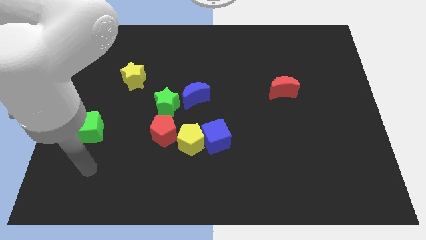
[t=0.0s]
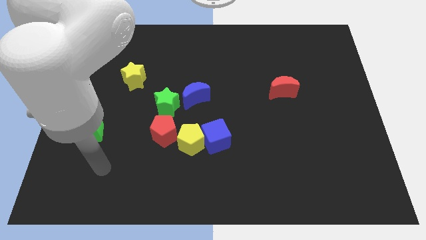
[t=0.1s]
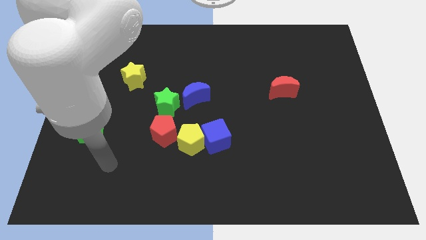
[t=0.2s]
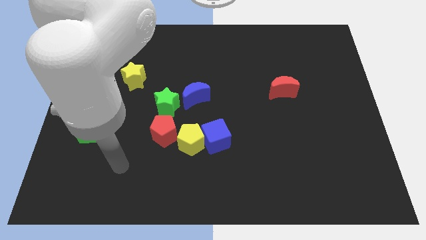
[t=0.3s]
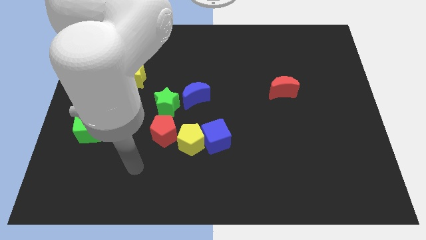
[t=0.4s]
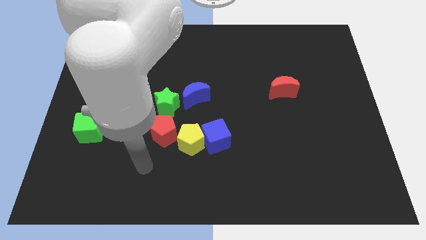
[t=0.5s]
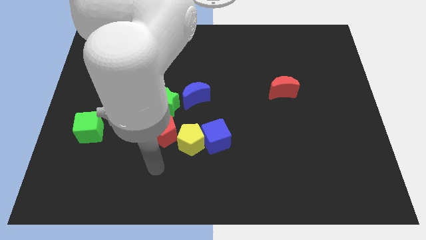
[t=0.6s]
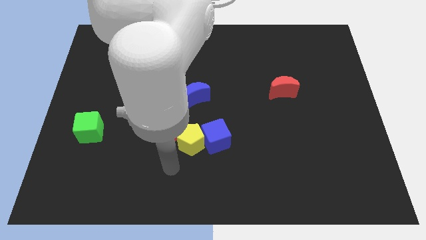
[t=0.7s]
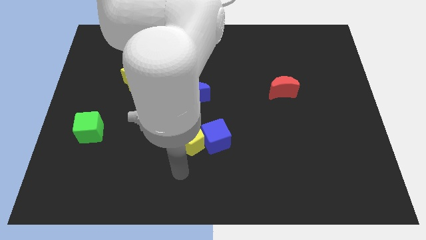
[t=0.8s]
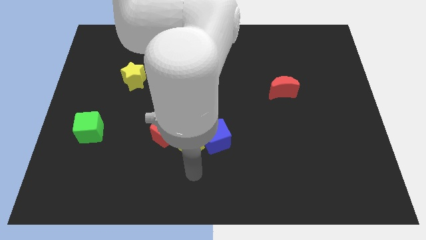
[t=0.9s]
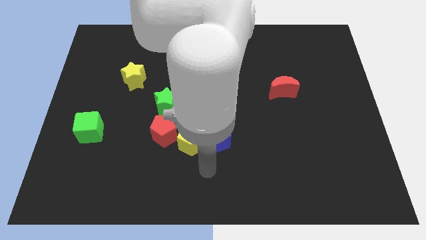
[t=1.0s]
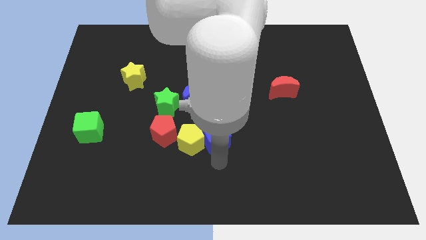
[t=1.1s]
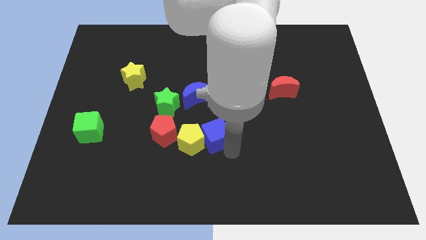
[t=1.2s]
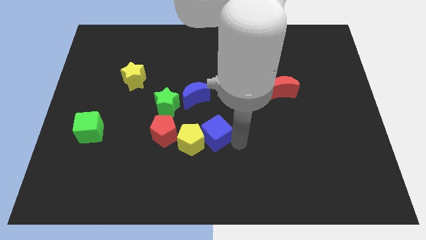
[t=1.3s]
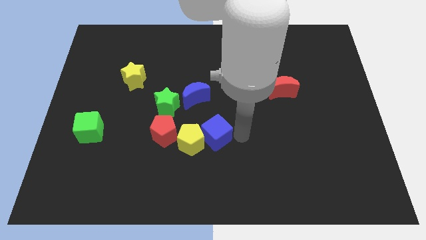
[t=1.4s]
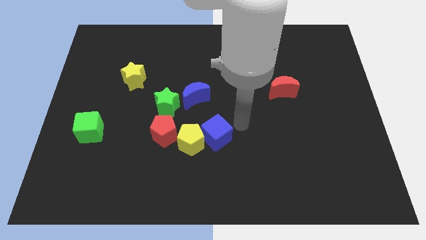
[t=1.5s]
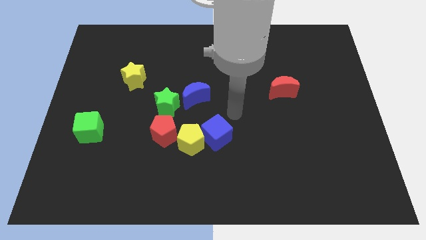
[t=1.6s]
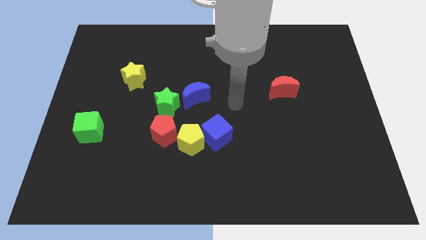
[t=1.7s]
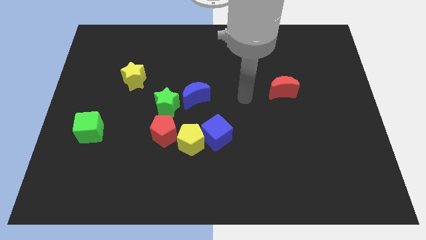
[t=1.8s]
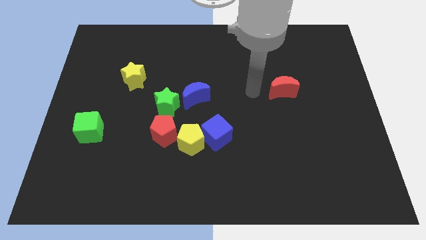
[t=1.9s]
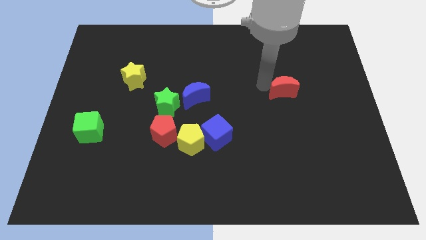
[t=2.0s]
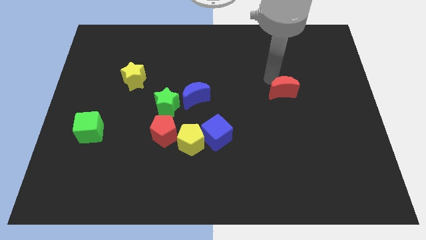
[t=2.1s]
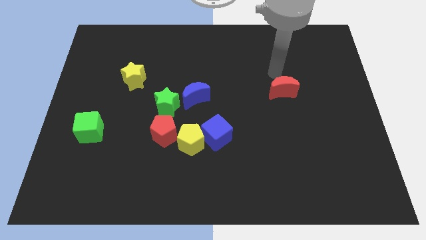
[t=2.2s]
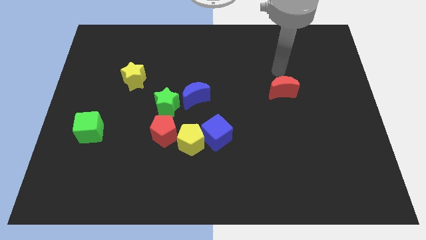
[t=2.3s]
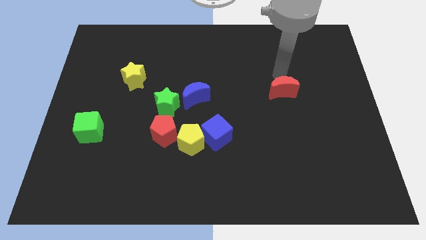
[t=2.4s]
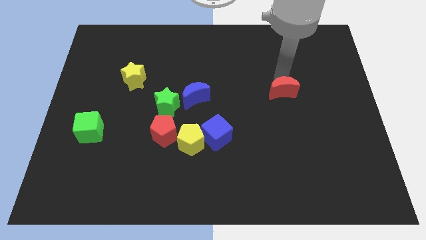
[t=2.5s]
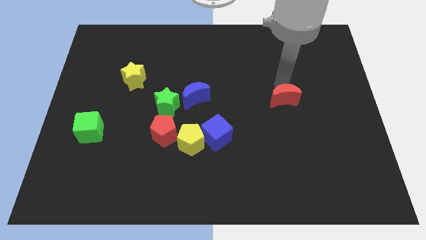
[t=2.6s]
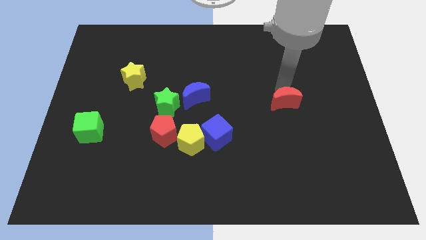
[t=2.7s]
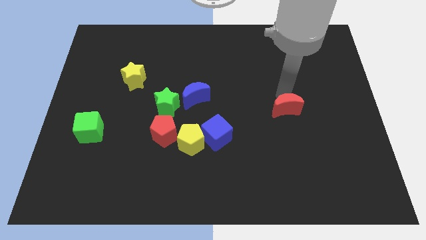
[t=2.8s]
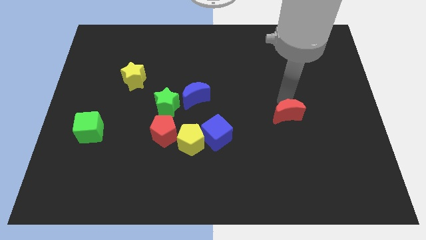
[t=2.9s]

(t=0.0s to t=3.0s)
slightly move the red moon downwards

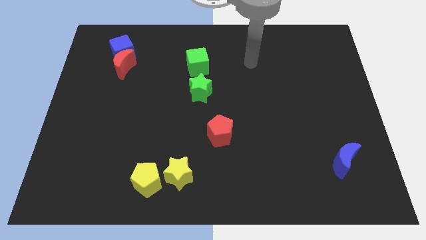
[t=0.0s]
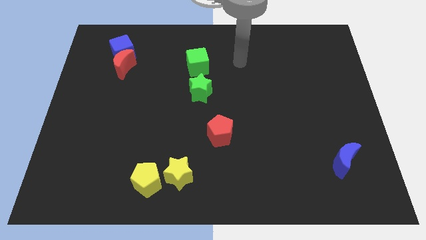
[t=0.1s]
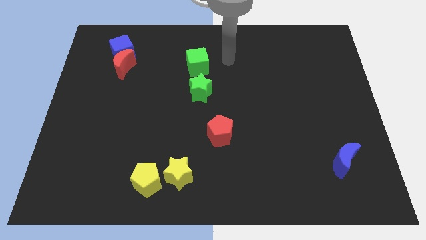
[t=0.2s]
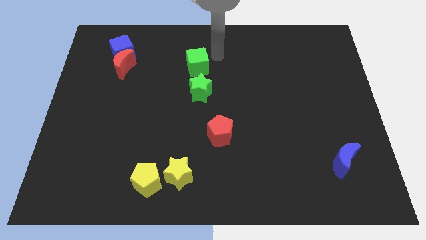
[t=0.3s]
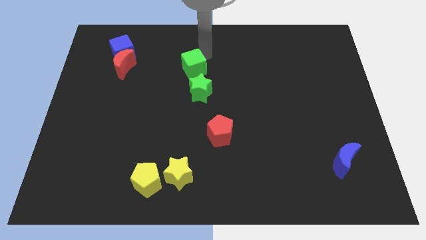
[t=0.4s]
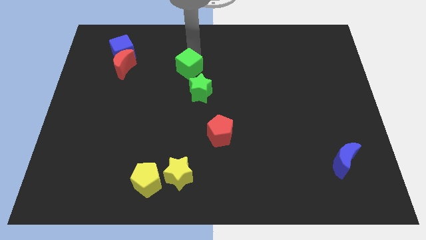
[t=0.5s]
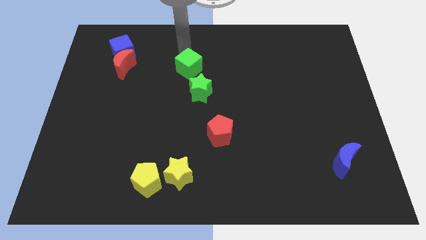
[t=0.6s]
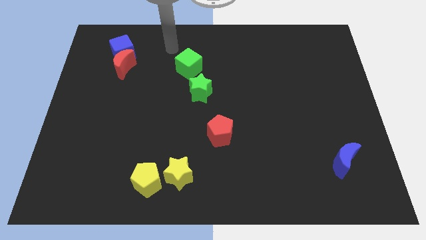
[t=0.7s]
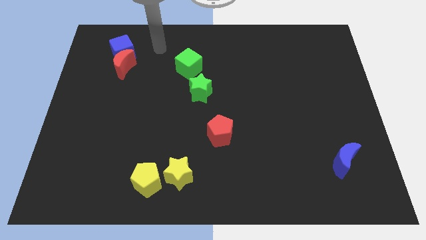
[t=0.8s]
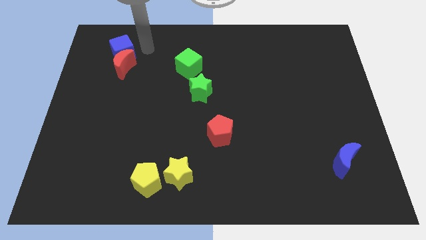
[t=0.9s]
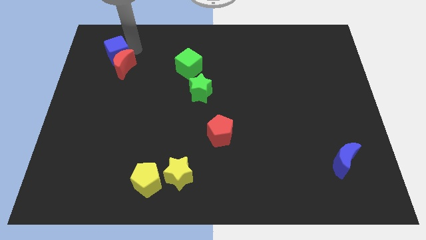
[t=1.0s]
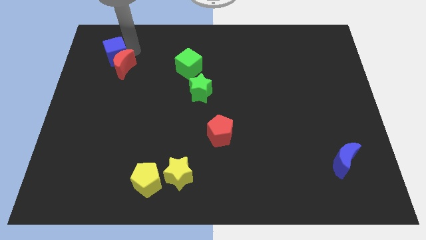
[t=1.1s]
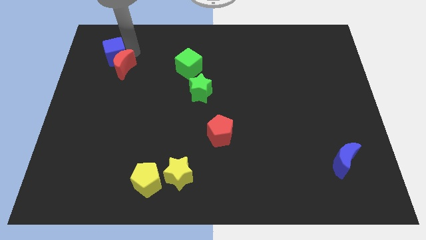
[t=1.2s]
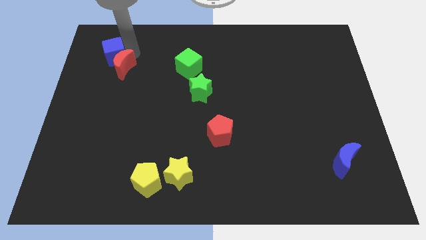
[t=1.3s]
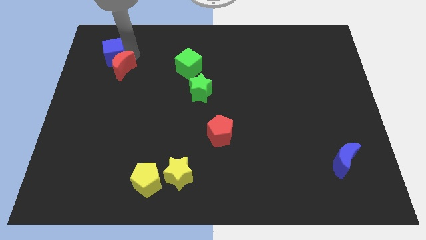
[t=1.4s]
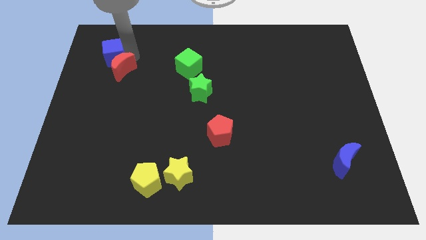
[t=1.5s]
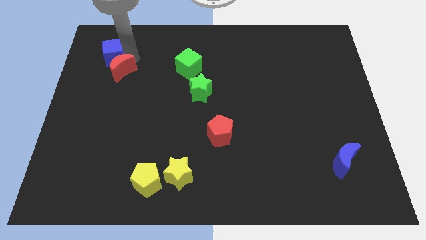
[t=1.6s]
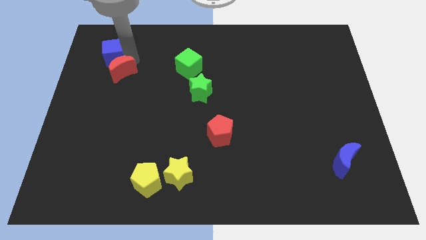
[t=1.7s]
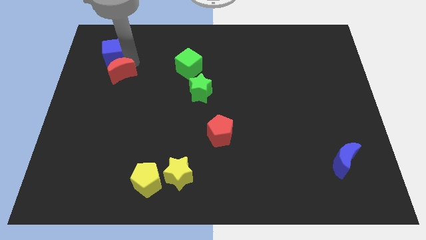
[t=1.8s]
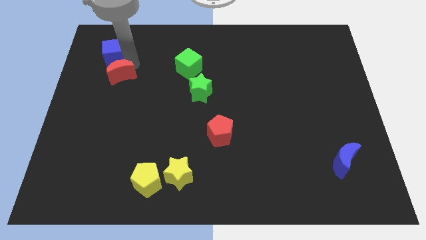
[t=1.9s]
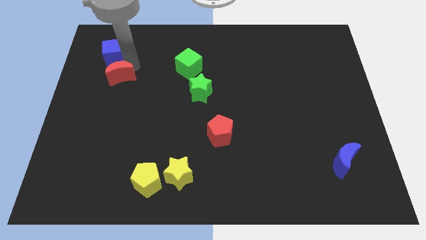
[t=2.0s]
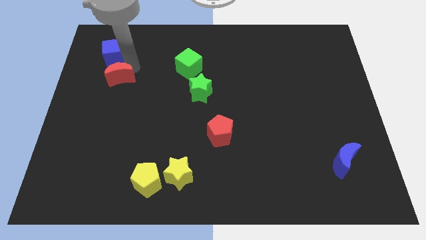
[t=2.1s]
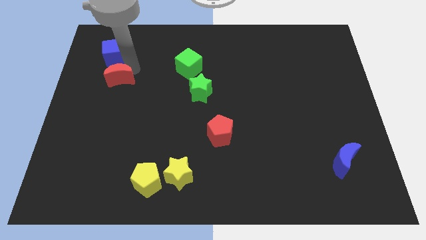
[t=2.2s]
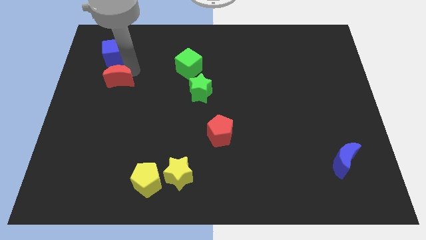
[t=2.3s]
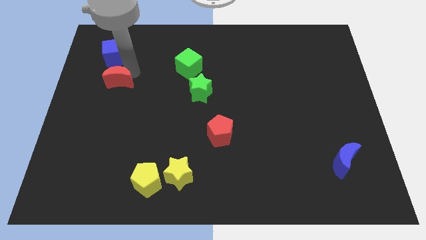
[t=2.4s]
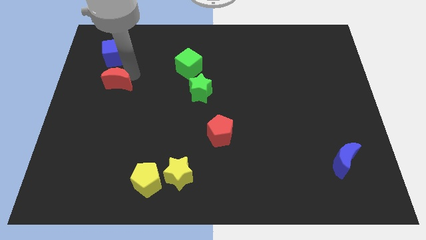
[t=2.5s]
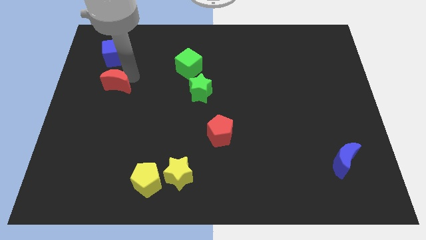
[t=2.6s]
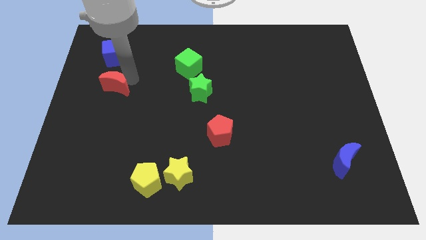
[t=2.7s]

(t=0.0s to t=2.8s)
push the red moon down a little

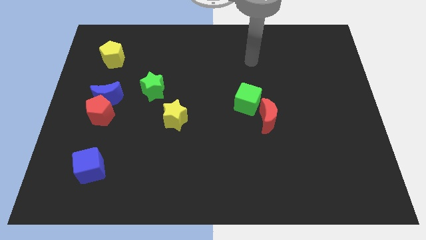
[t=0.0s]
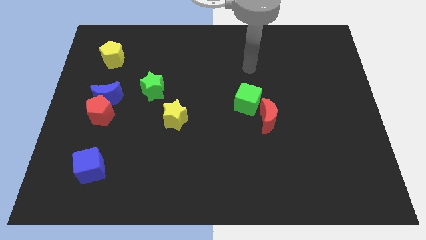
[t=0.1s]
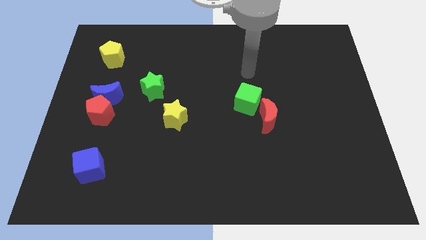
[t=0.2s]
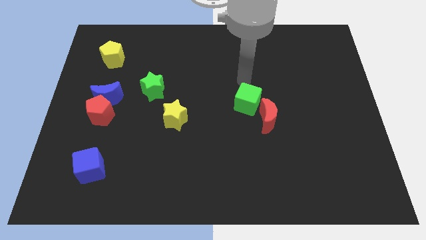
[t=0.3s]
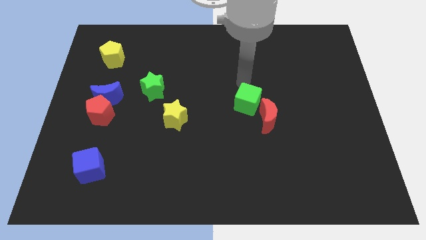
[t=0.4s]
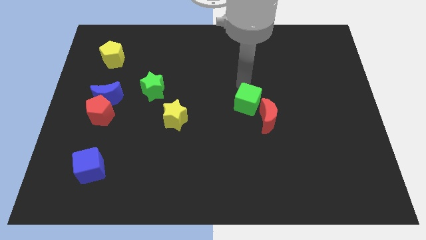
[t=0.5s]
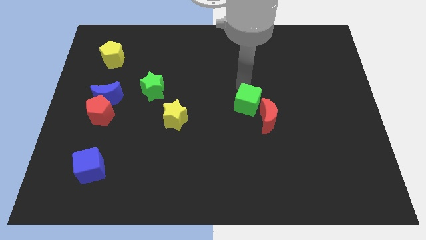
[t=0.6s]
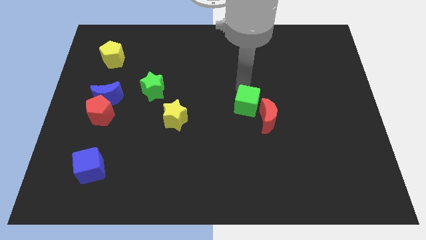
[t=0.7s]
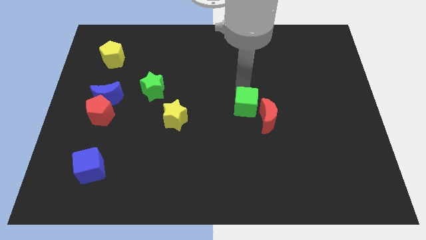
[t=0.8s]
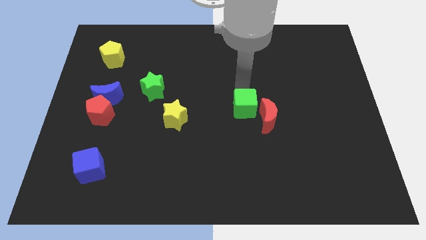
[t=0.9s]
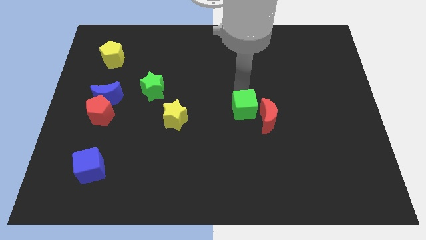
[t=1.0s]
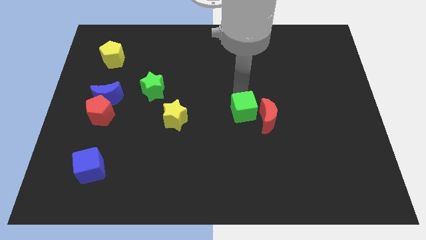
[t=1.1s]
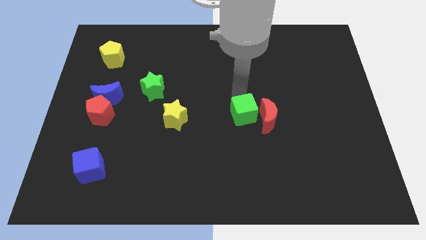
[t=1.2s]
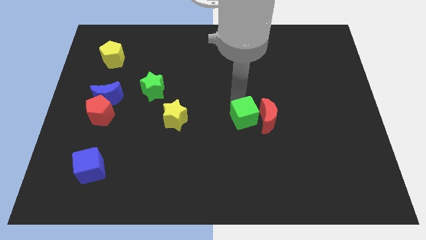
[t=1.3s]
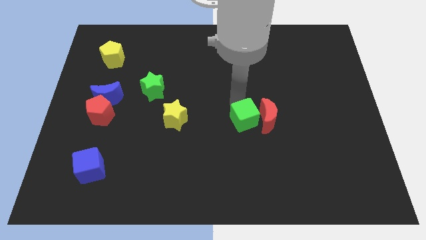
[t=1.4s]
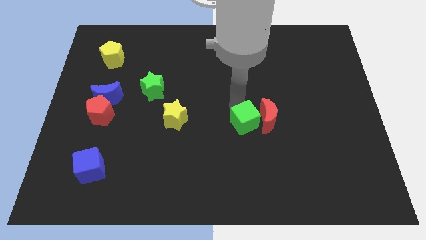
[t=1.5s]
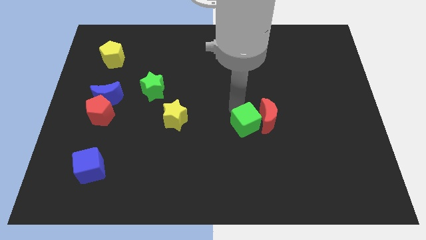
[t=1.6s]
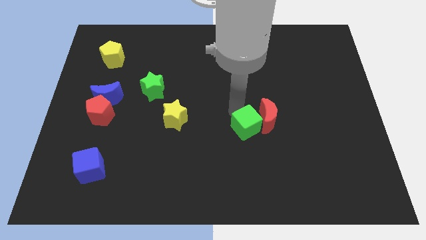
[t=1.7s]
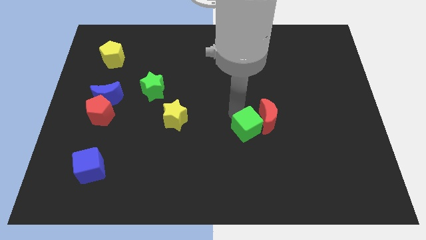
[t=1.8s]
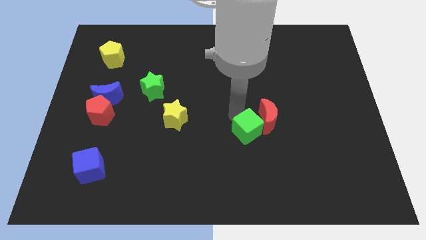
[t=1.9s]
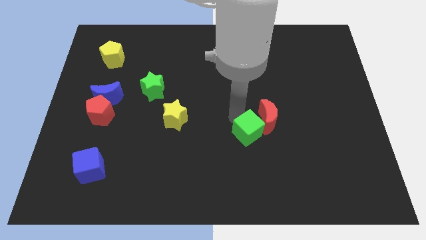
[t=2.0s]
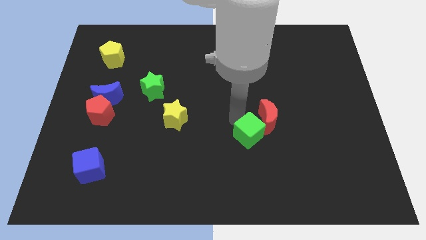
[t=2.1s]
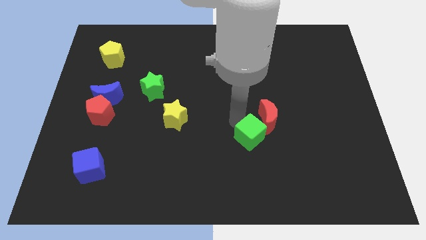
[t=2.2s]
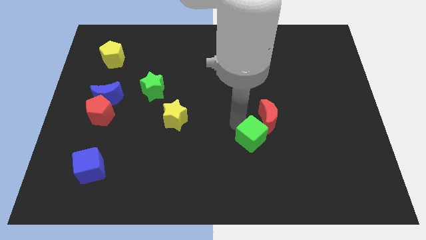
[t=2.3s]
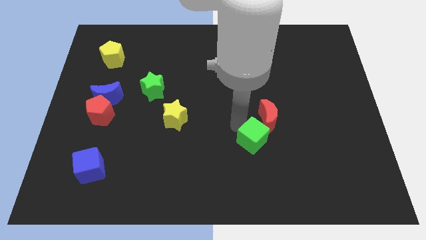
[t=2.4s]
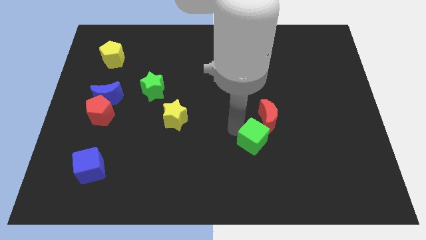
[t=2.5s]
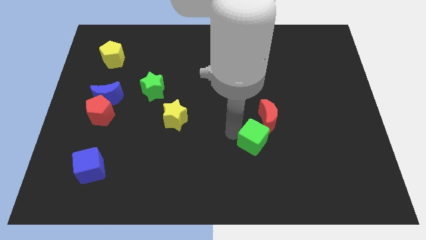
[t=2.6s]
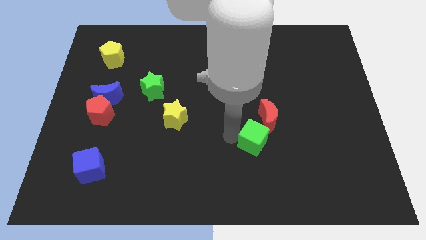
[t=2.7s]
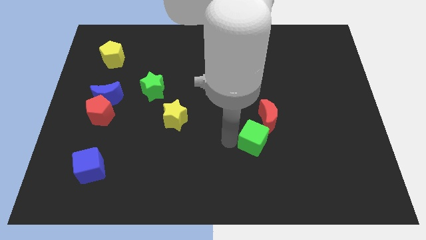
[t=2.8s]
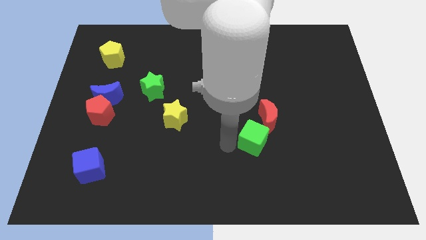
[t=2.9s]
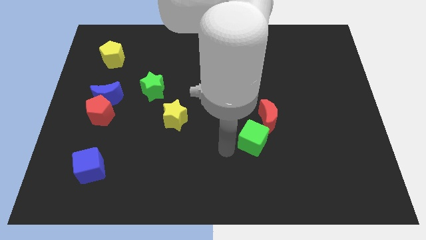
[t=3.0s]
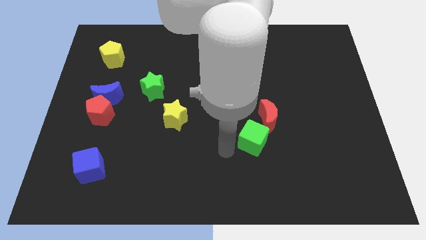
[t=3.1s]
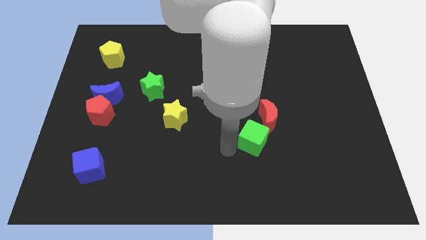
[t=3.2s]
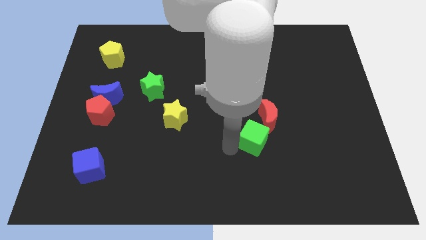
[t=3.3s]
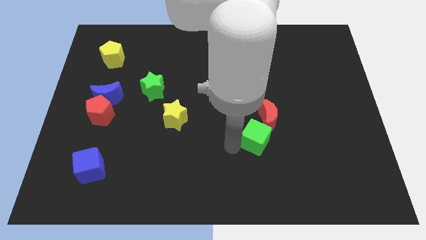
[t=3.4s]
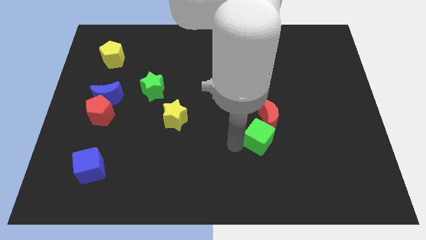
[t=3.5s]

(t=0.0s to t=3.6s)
push the green cube downwards and right diagonally a little bit
